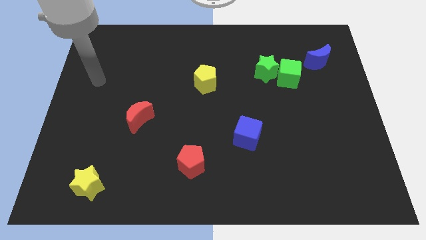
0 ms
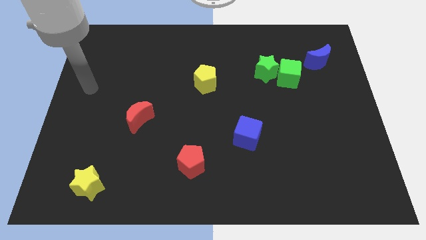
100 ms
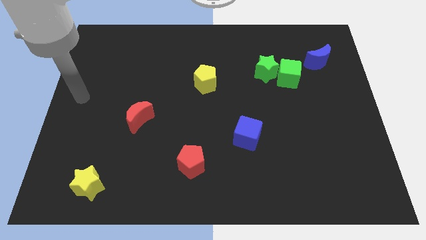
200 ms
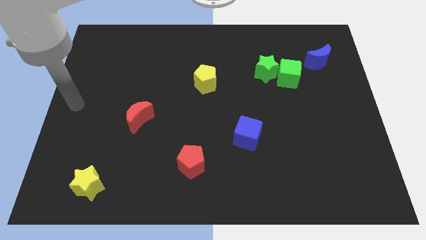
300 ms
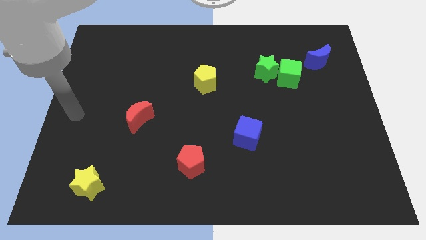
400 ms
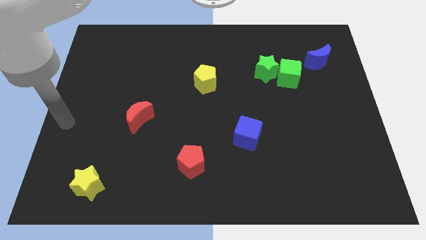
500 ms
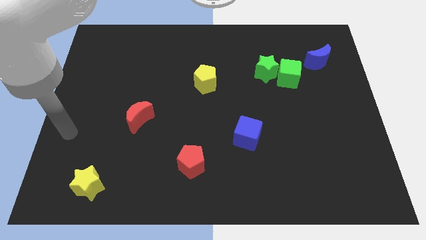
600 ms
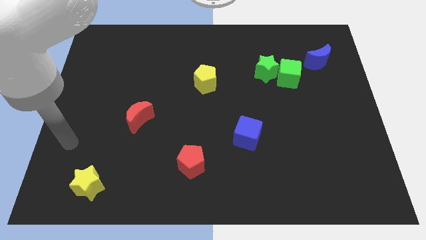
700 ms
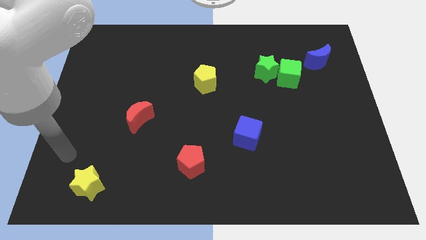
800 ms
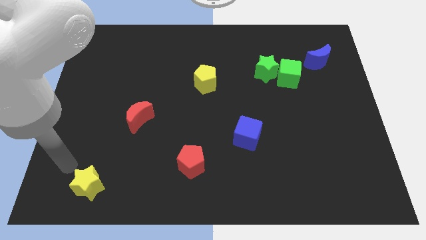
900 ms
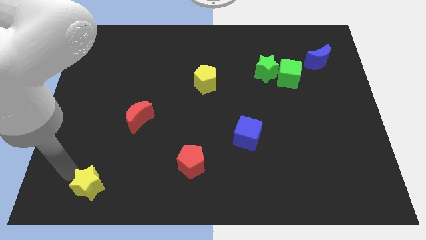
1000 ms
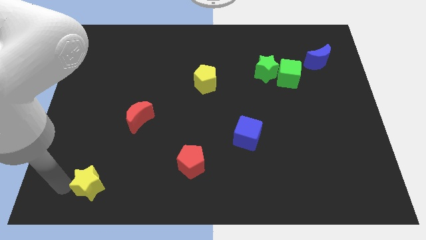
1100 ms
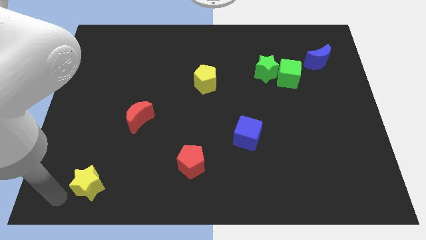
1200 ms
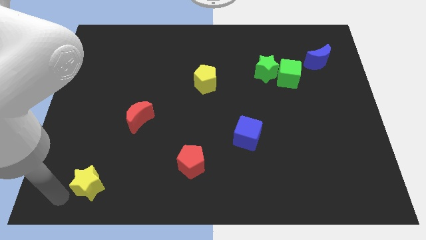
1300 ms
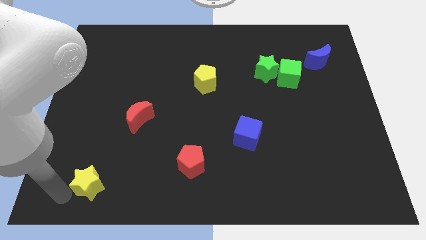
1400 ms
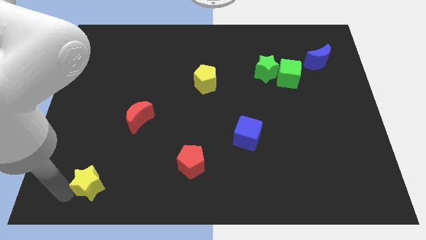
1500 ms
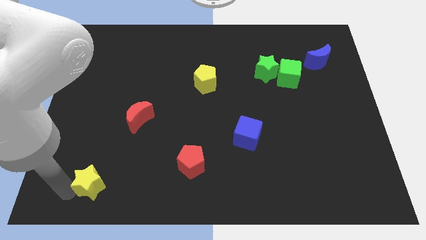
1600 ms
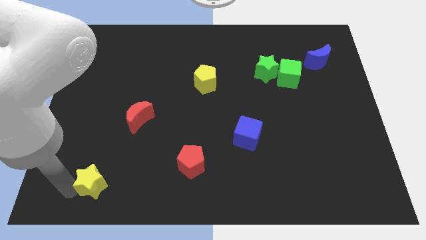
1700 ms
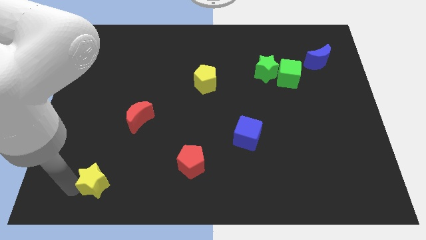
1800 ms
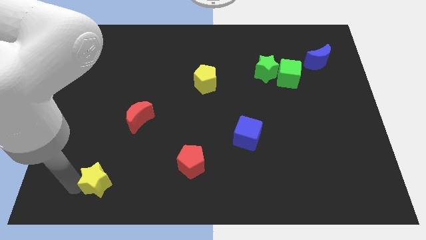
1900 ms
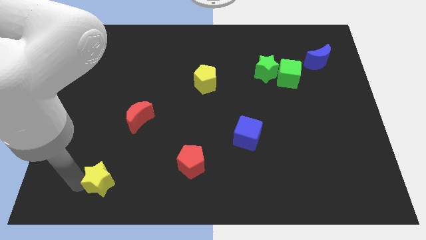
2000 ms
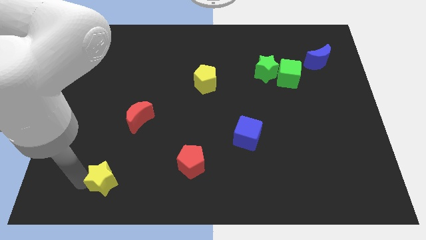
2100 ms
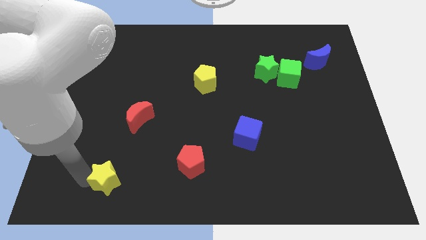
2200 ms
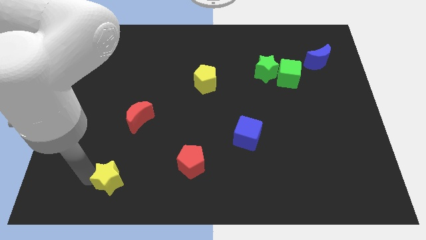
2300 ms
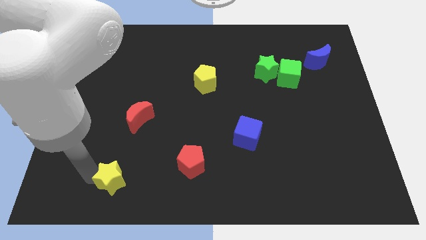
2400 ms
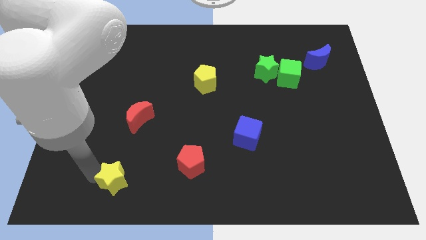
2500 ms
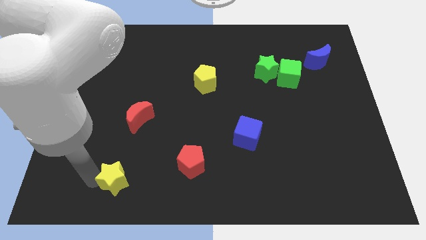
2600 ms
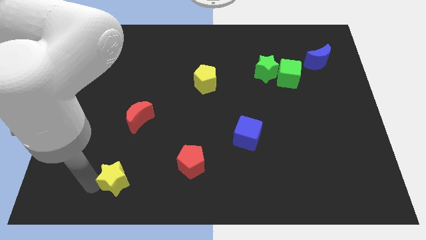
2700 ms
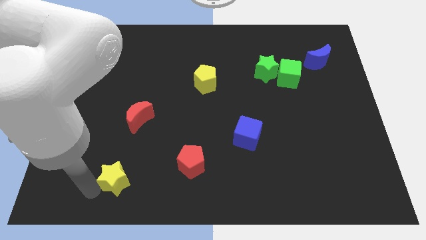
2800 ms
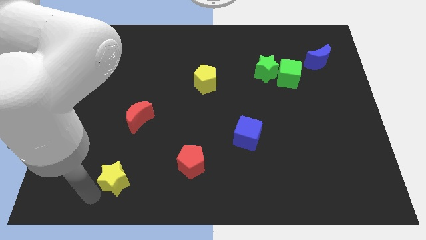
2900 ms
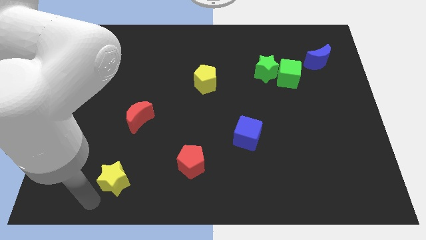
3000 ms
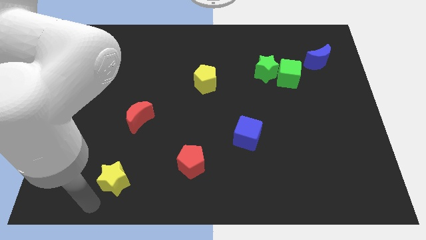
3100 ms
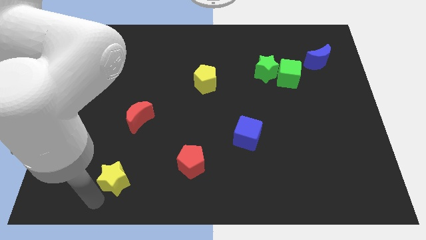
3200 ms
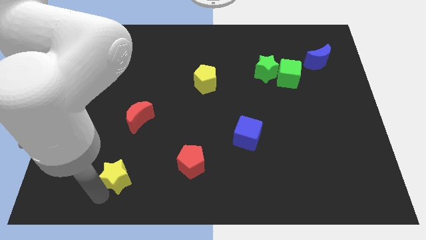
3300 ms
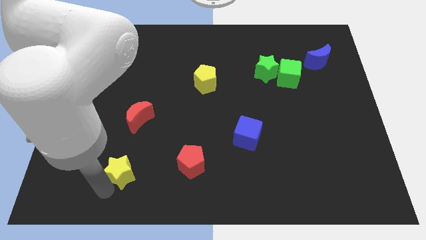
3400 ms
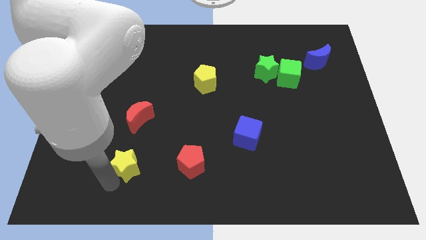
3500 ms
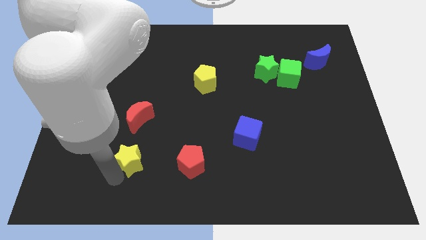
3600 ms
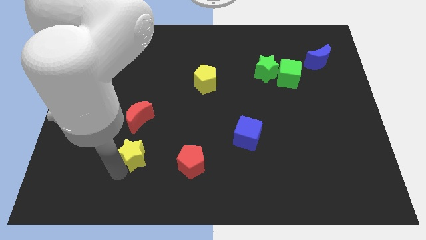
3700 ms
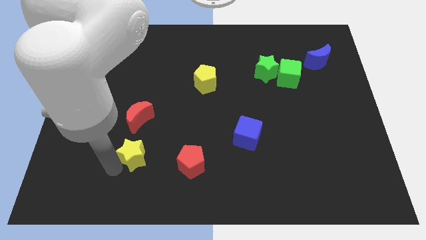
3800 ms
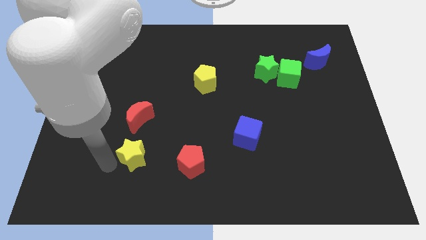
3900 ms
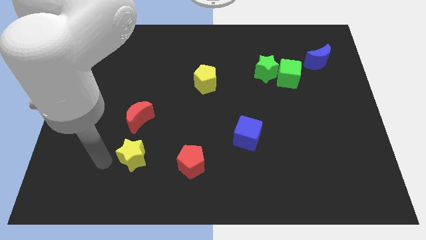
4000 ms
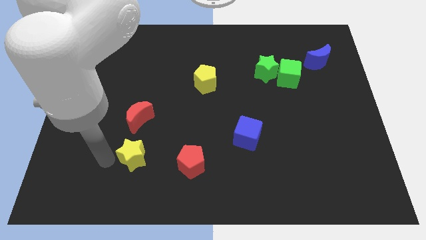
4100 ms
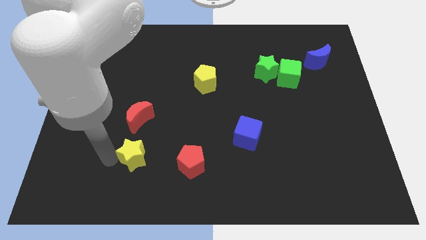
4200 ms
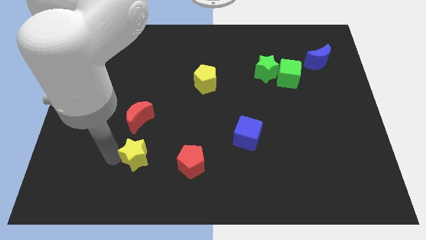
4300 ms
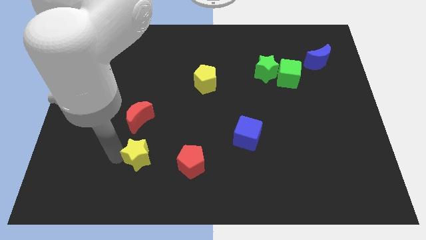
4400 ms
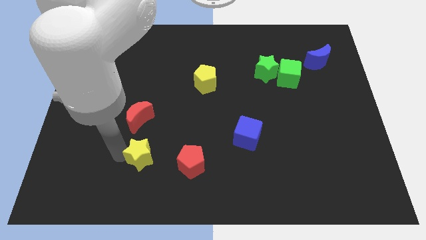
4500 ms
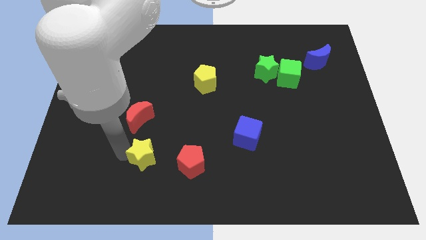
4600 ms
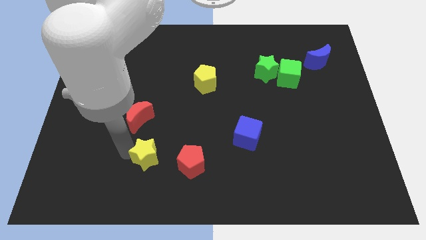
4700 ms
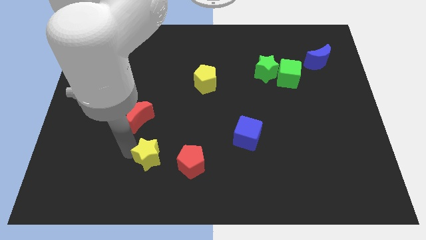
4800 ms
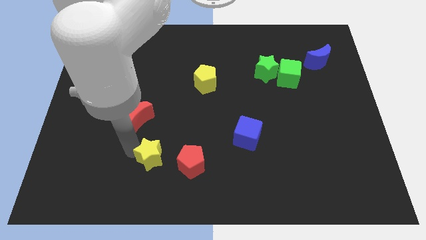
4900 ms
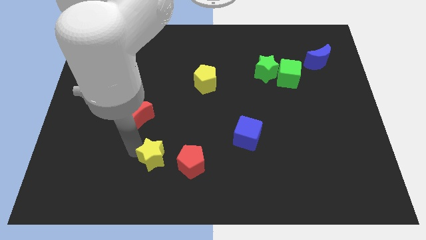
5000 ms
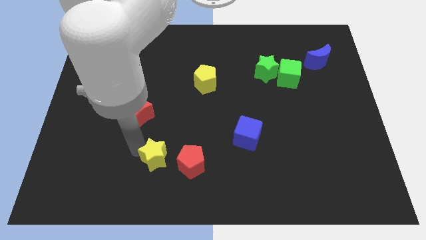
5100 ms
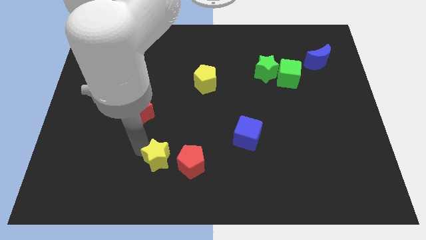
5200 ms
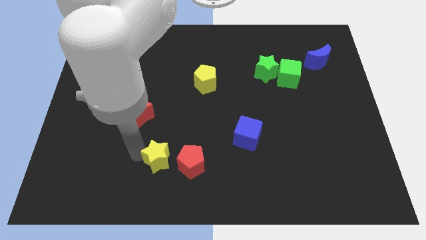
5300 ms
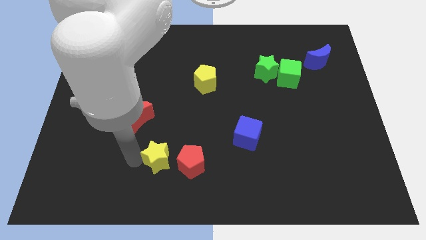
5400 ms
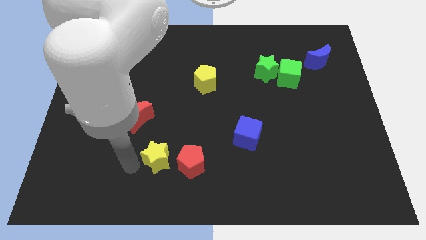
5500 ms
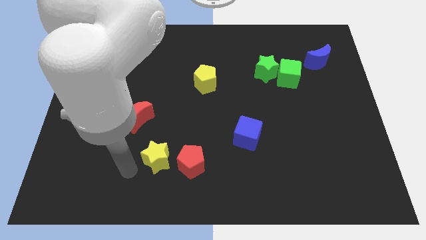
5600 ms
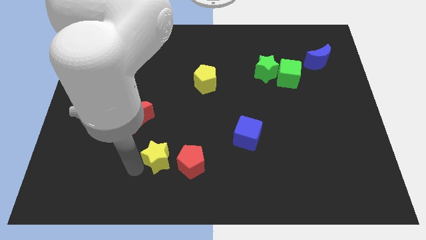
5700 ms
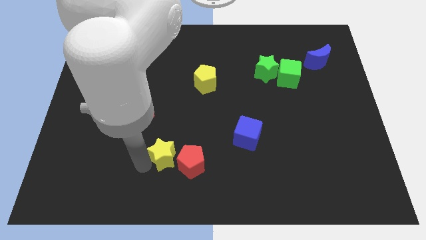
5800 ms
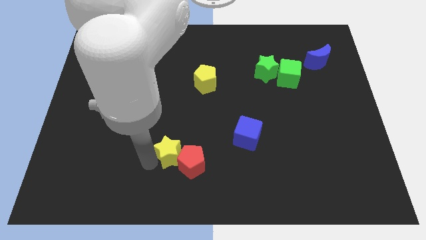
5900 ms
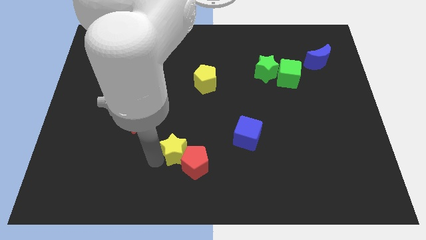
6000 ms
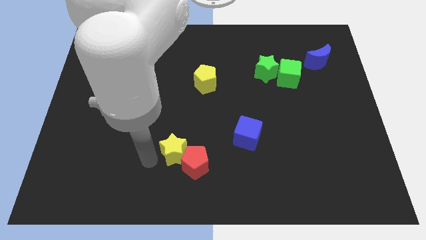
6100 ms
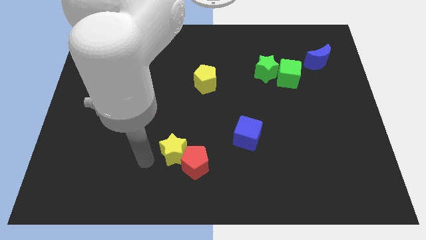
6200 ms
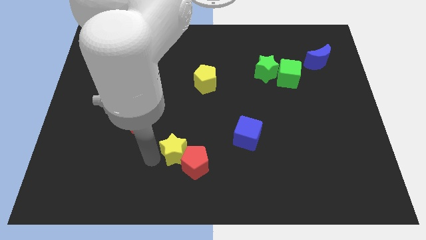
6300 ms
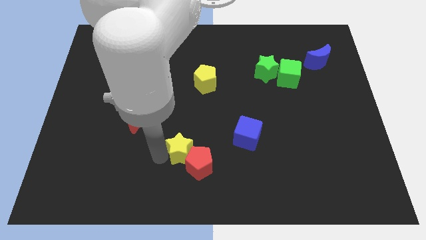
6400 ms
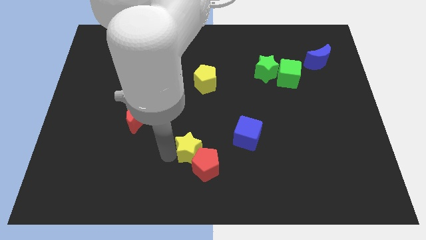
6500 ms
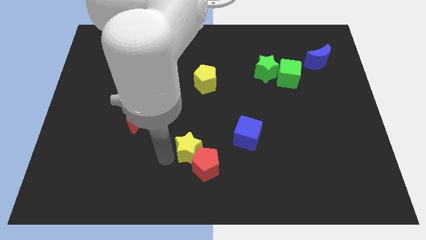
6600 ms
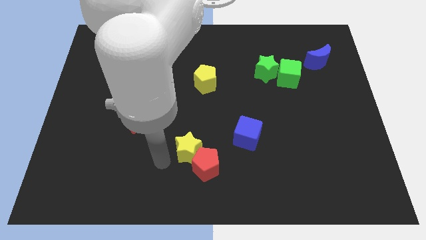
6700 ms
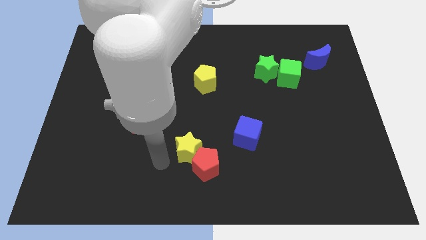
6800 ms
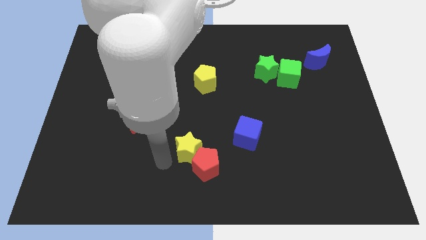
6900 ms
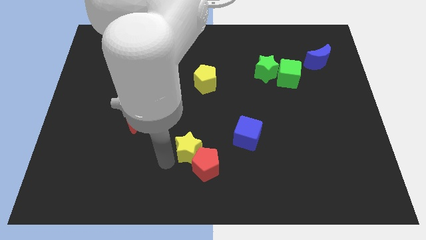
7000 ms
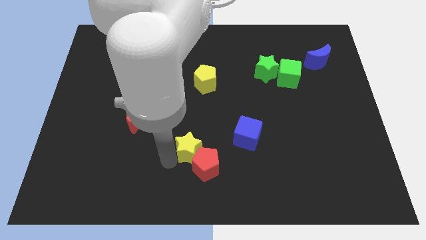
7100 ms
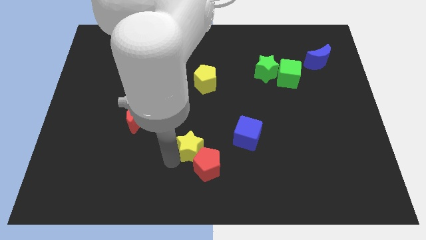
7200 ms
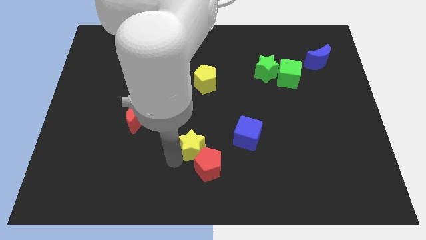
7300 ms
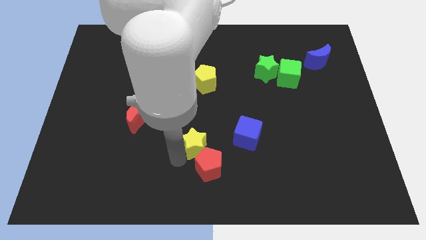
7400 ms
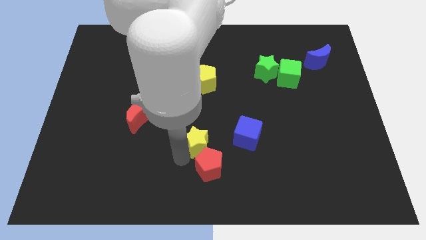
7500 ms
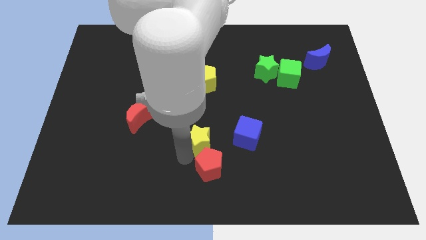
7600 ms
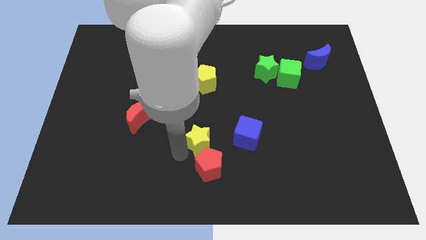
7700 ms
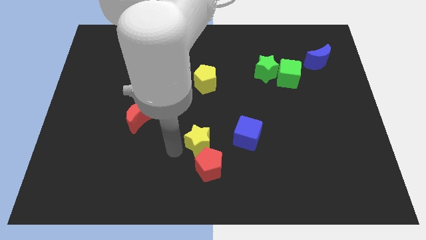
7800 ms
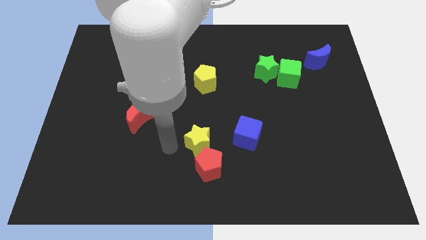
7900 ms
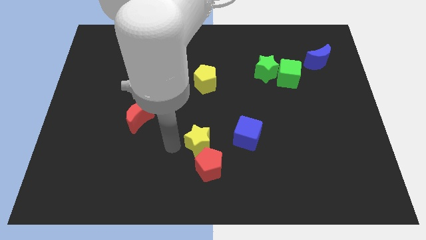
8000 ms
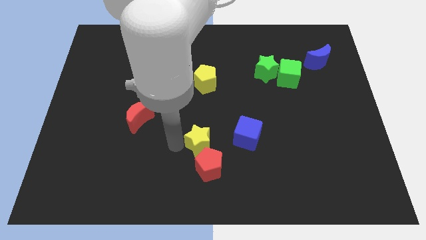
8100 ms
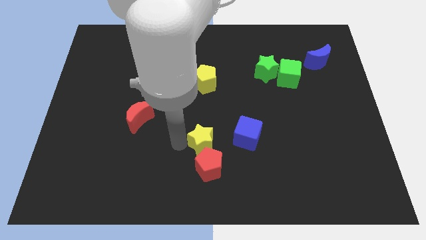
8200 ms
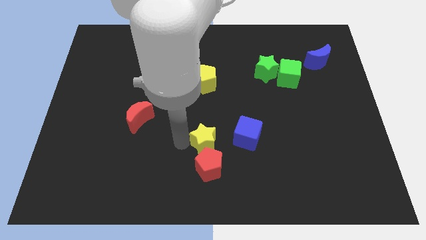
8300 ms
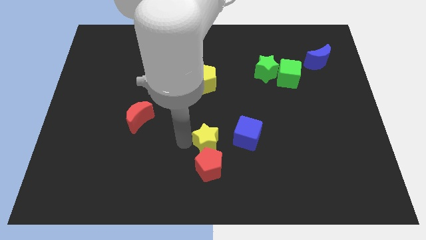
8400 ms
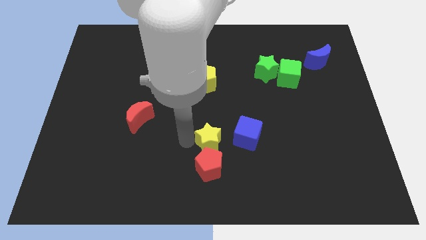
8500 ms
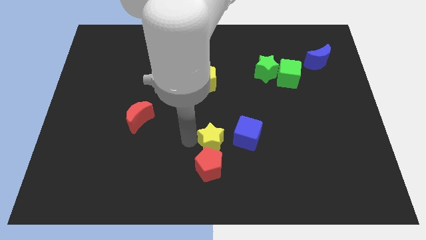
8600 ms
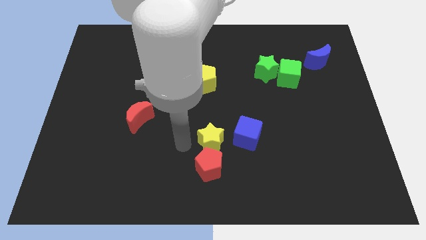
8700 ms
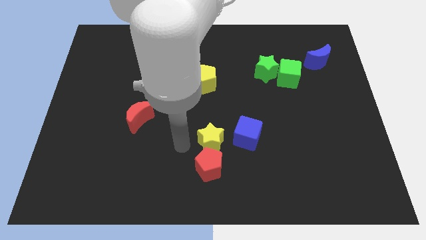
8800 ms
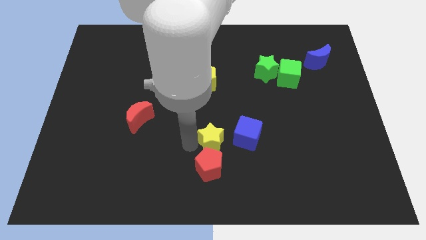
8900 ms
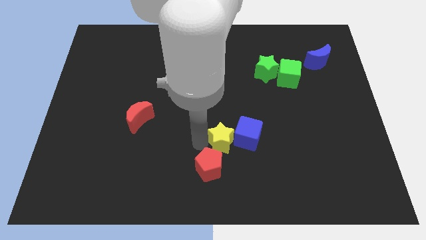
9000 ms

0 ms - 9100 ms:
slide the yellow star close to the blue cube
